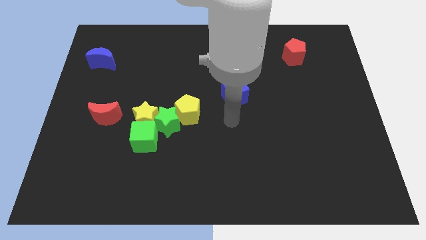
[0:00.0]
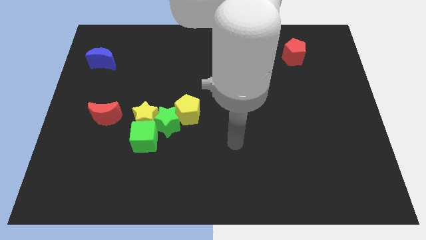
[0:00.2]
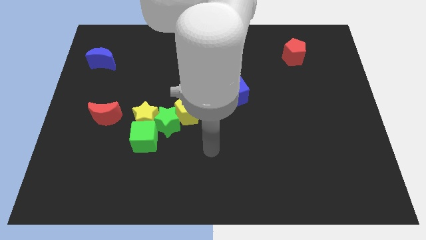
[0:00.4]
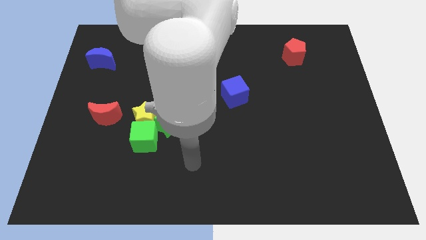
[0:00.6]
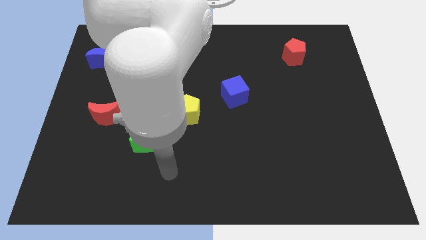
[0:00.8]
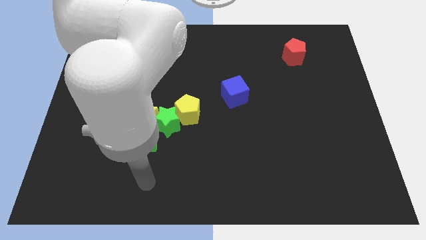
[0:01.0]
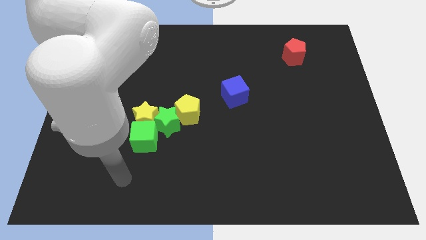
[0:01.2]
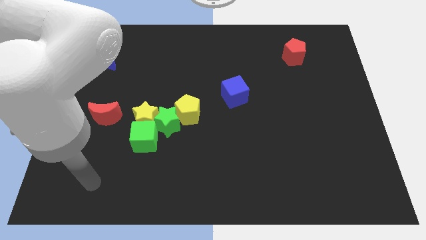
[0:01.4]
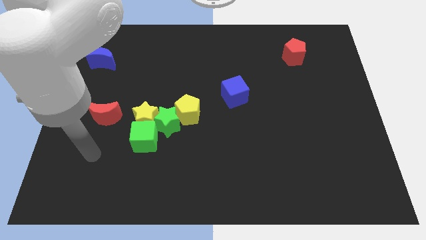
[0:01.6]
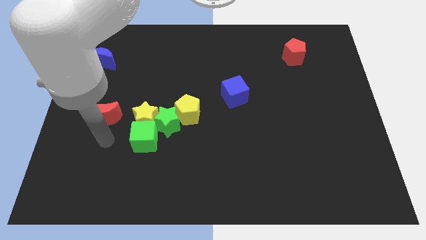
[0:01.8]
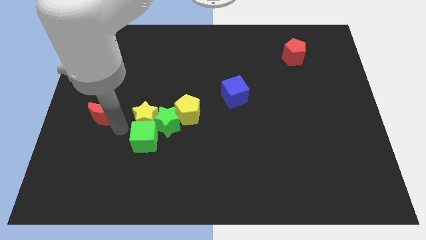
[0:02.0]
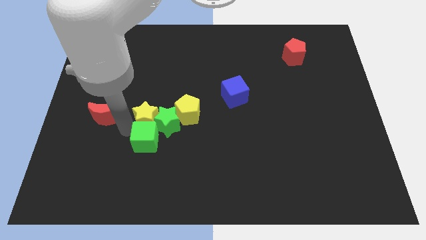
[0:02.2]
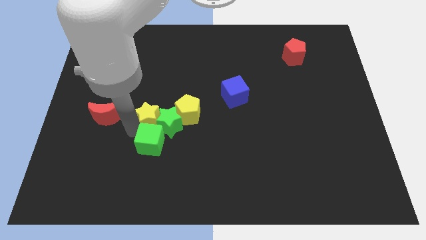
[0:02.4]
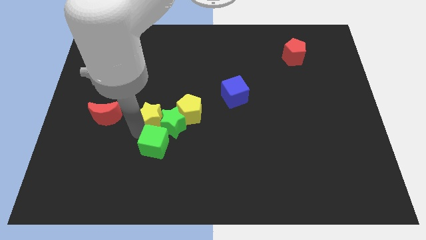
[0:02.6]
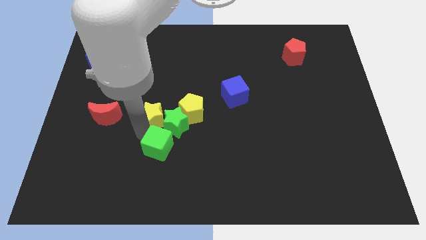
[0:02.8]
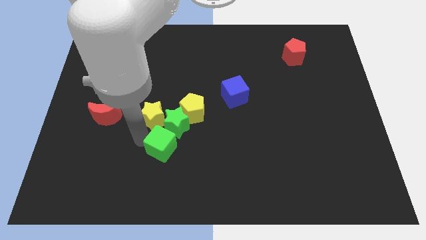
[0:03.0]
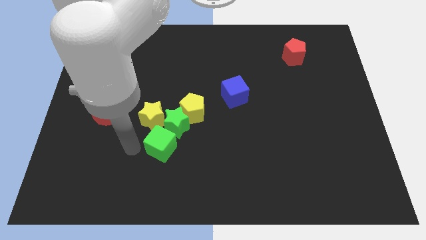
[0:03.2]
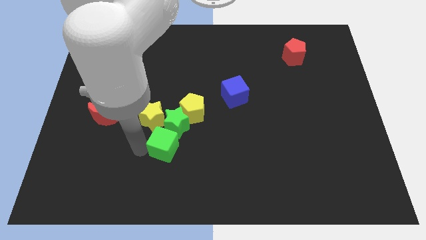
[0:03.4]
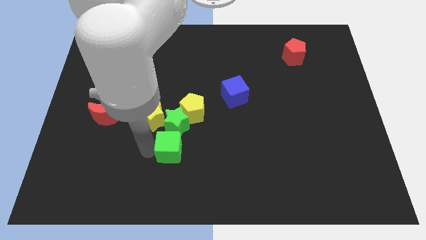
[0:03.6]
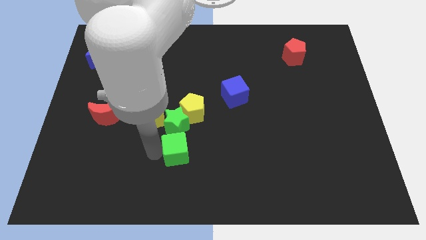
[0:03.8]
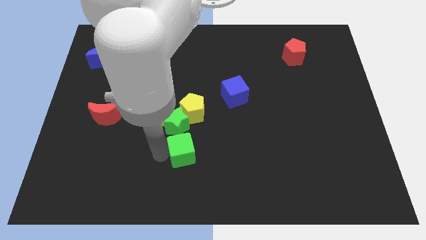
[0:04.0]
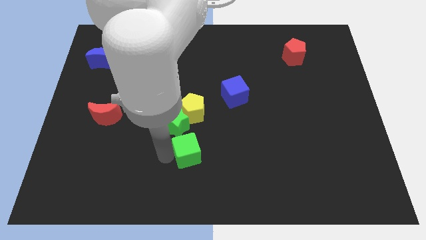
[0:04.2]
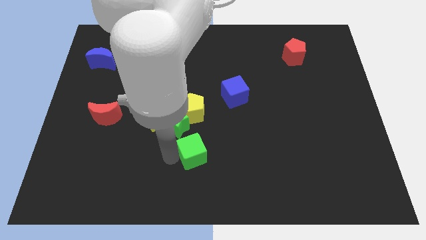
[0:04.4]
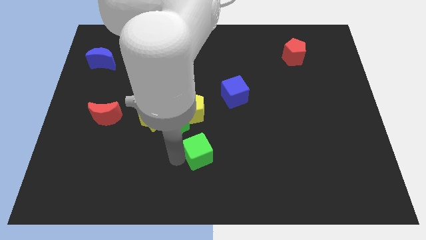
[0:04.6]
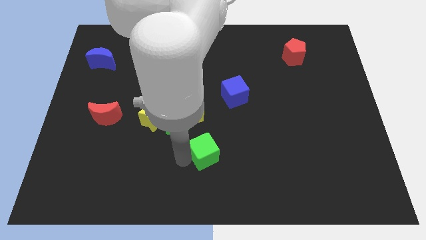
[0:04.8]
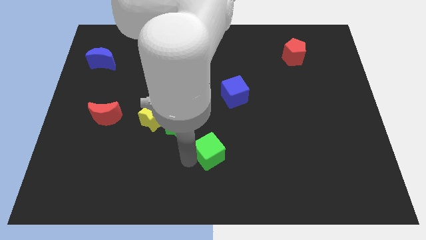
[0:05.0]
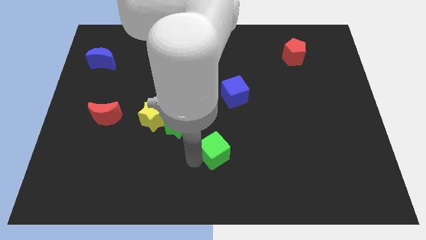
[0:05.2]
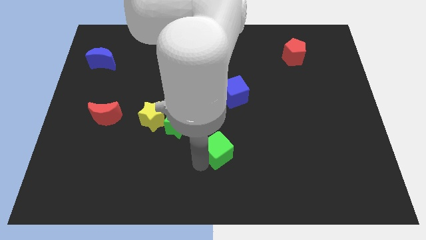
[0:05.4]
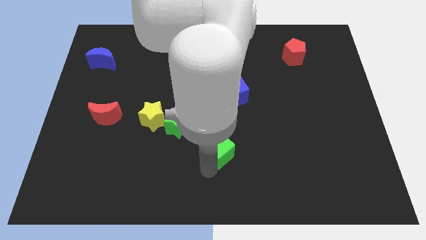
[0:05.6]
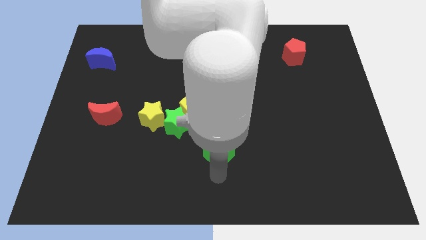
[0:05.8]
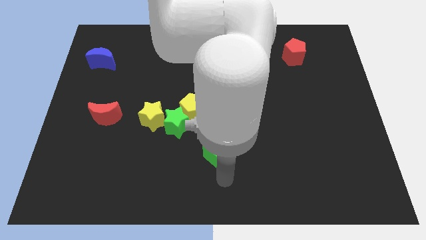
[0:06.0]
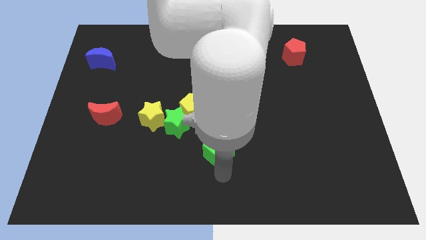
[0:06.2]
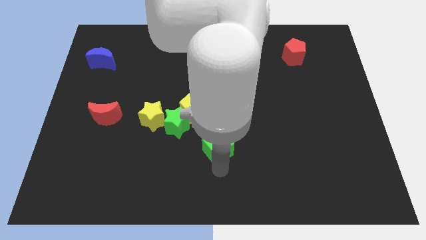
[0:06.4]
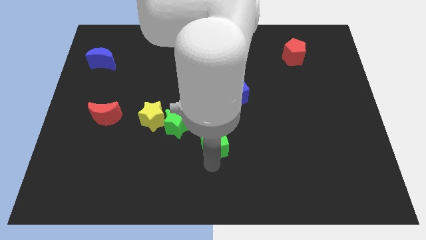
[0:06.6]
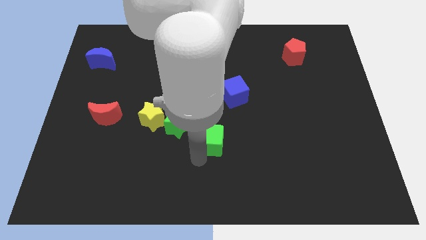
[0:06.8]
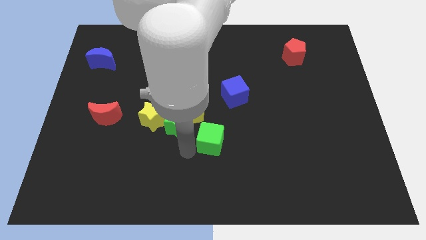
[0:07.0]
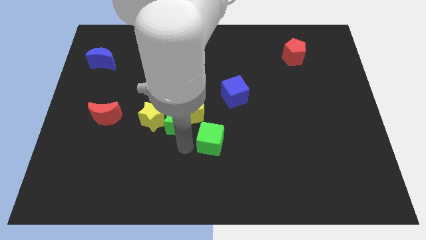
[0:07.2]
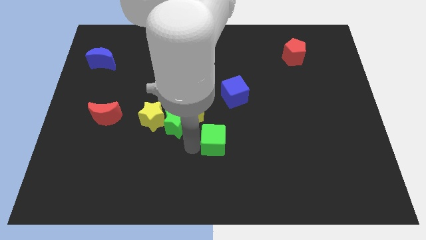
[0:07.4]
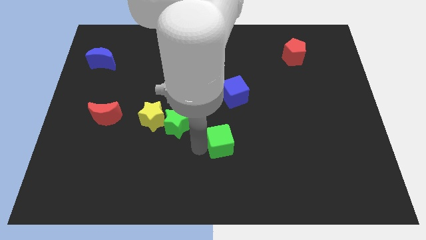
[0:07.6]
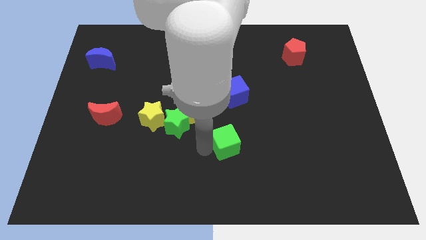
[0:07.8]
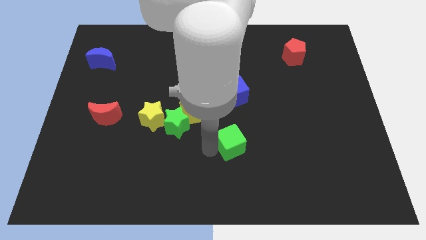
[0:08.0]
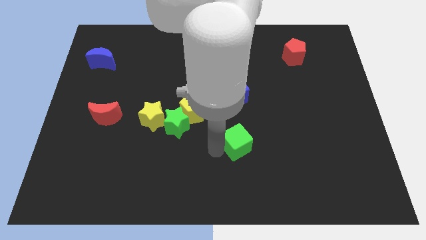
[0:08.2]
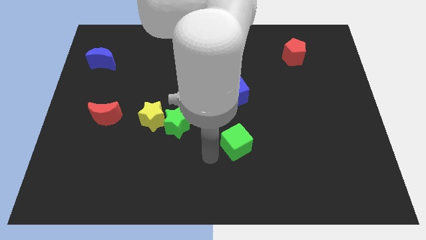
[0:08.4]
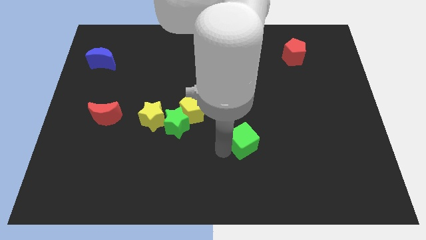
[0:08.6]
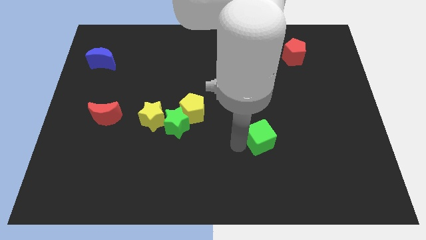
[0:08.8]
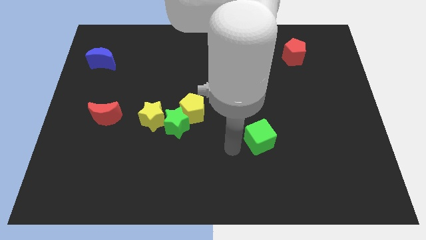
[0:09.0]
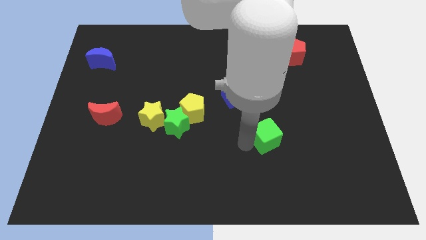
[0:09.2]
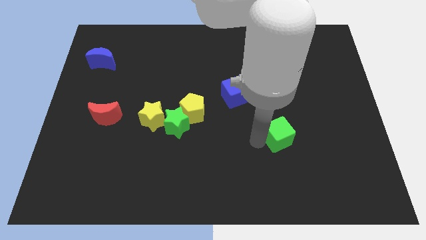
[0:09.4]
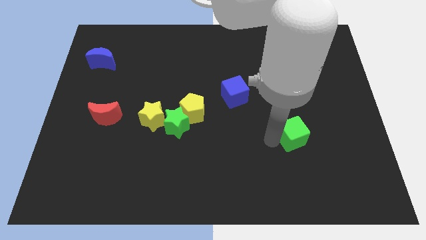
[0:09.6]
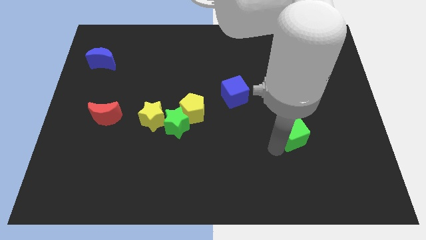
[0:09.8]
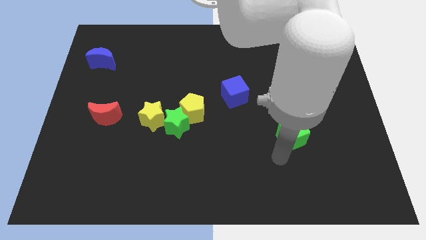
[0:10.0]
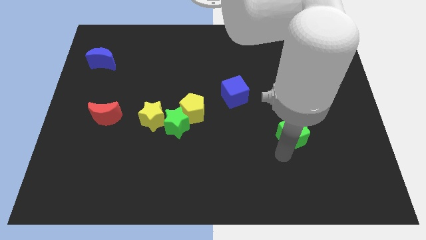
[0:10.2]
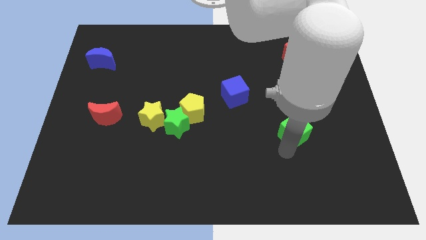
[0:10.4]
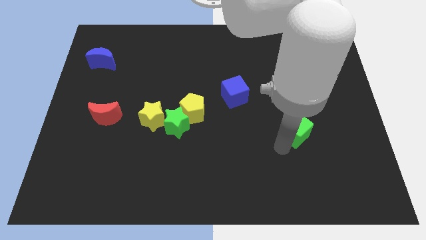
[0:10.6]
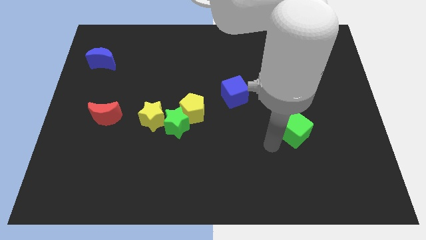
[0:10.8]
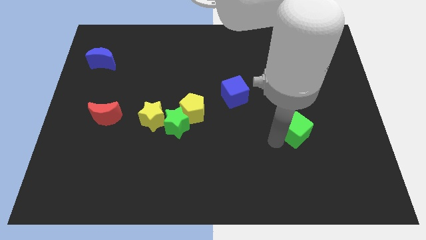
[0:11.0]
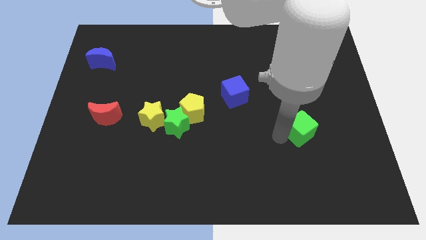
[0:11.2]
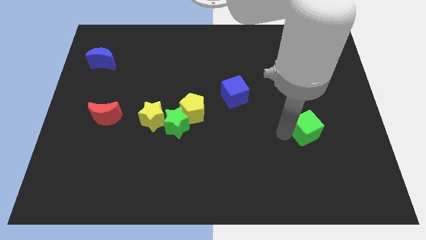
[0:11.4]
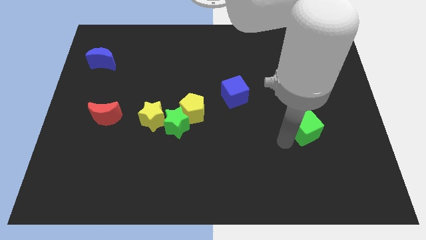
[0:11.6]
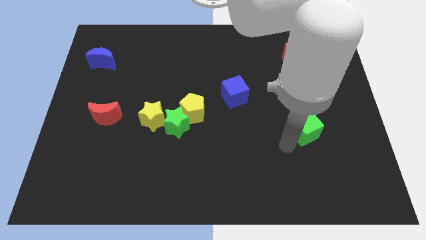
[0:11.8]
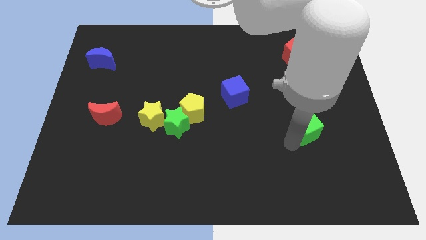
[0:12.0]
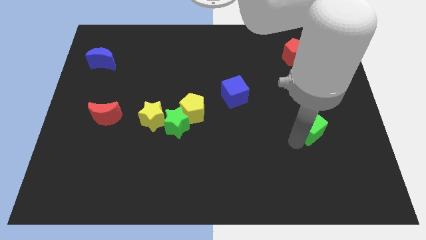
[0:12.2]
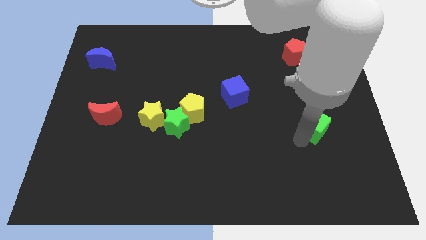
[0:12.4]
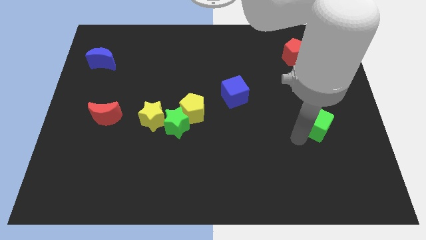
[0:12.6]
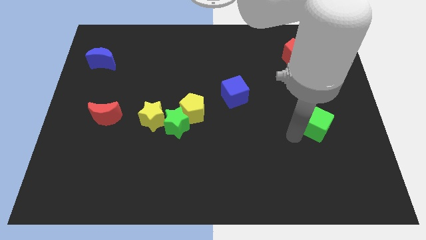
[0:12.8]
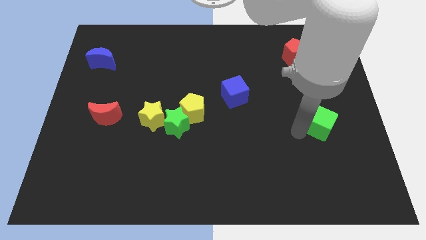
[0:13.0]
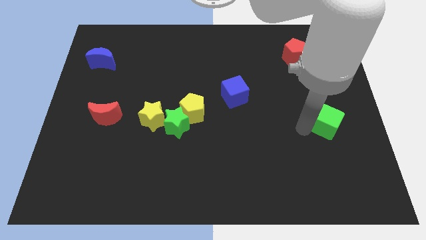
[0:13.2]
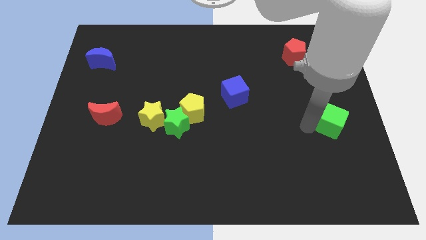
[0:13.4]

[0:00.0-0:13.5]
move the green cube to the right side of the board
